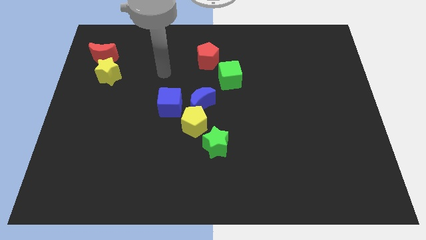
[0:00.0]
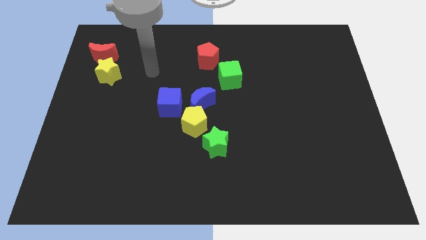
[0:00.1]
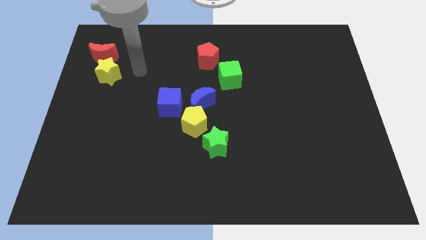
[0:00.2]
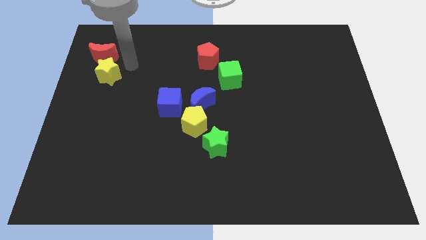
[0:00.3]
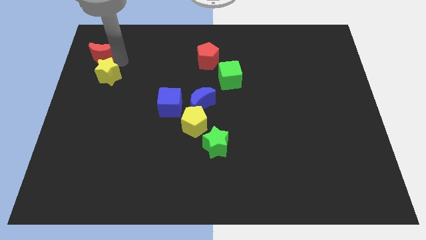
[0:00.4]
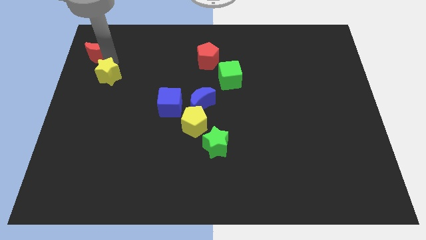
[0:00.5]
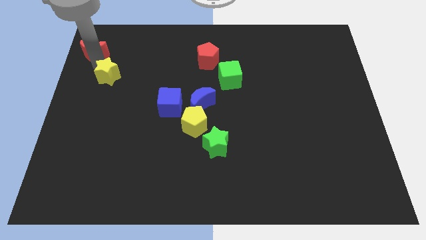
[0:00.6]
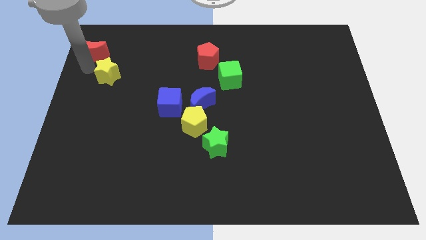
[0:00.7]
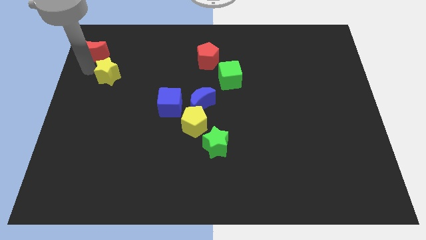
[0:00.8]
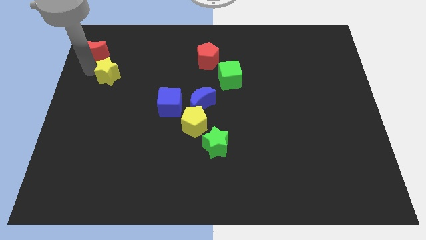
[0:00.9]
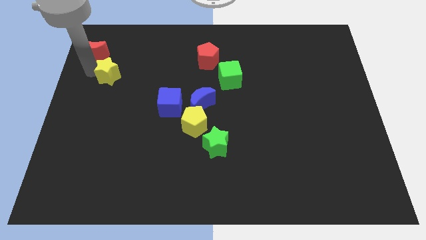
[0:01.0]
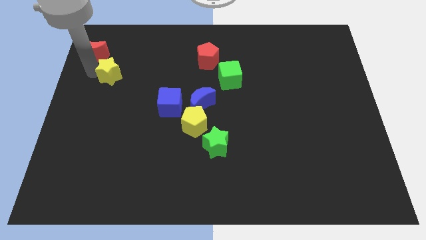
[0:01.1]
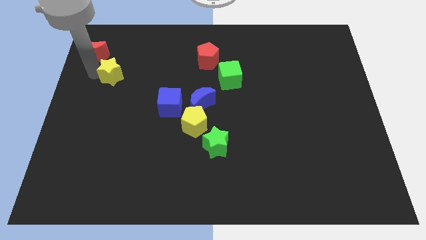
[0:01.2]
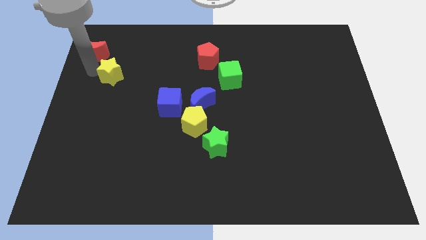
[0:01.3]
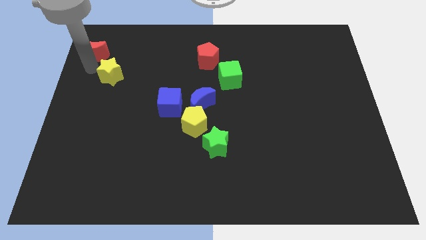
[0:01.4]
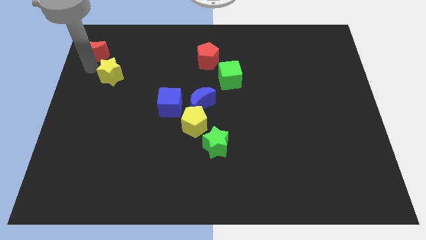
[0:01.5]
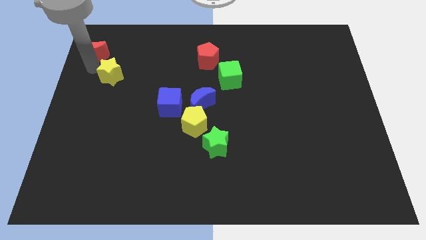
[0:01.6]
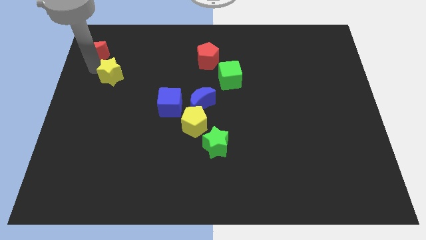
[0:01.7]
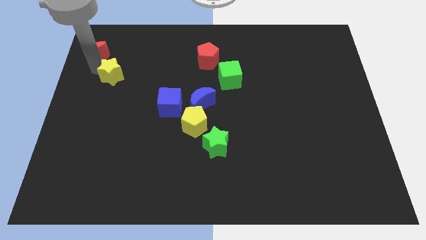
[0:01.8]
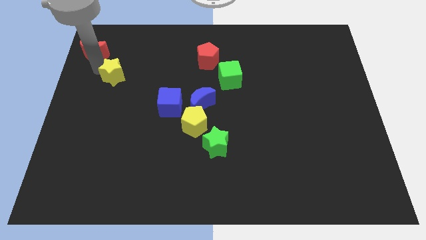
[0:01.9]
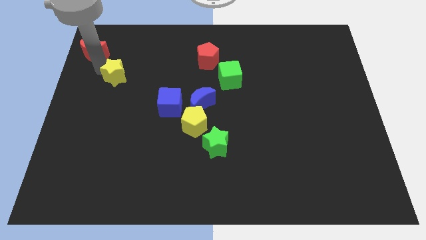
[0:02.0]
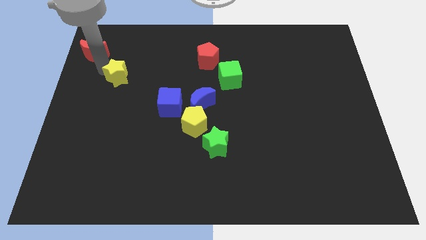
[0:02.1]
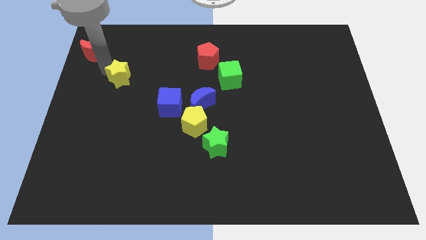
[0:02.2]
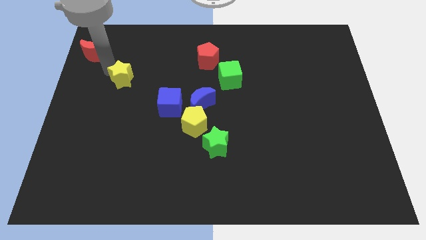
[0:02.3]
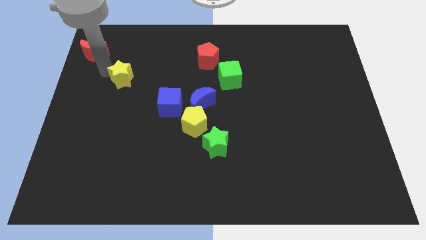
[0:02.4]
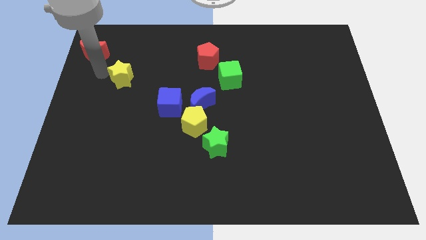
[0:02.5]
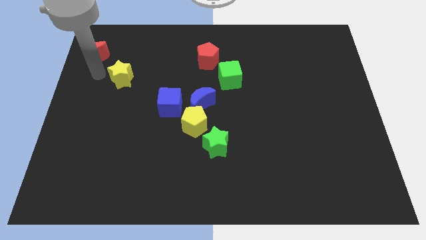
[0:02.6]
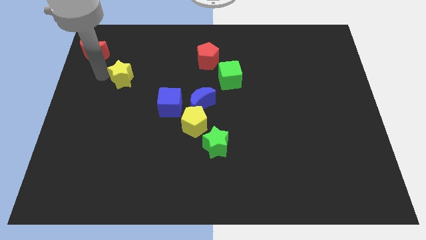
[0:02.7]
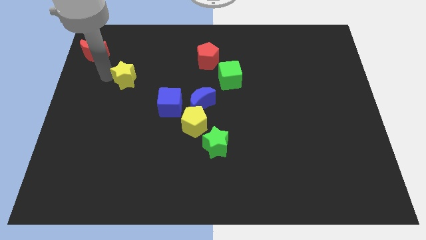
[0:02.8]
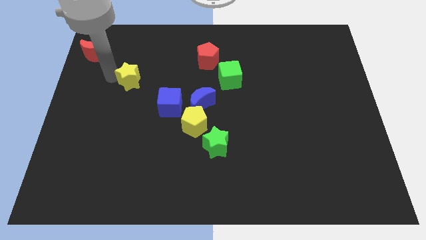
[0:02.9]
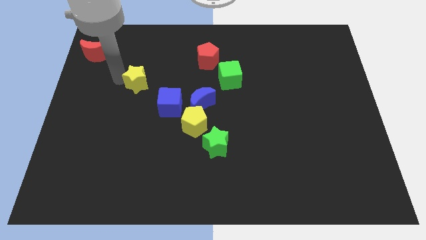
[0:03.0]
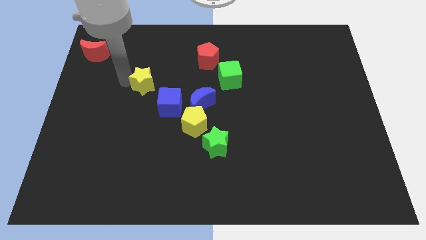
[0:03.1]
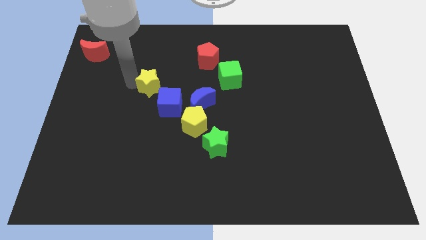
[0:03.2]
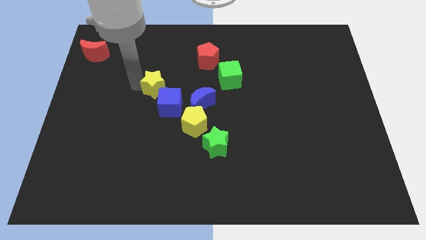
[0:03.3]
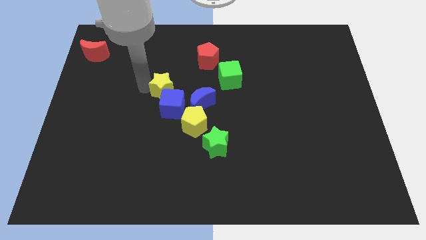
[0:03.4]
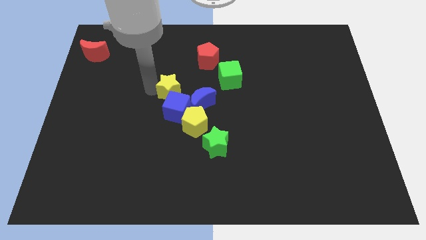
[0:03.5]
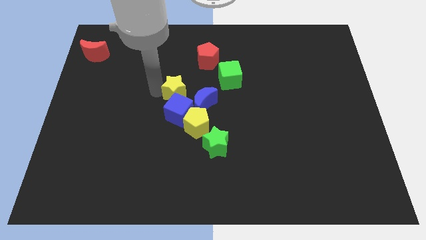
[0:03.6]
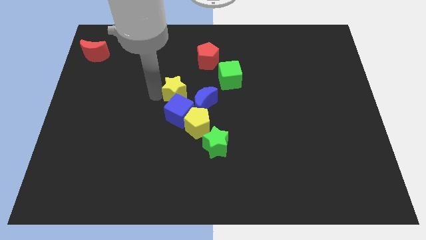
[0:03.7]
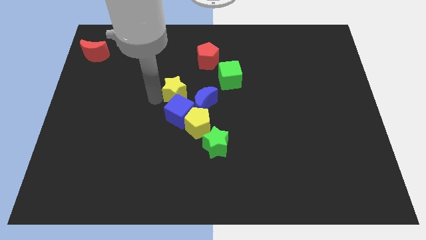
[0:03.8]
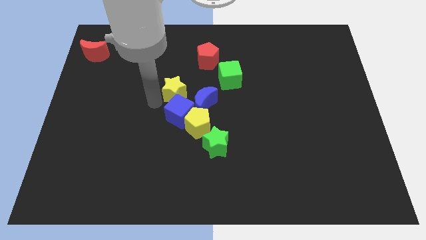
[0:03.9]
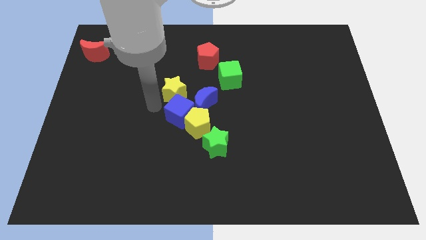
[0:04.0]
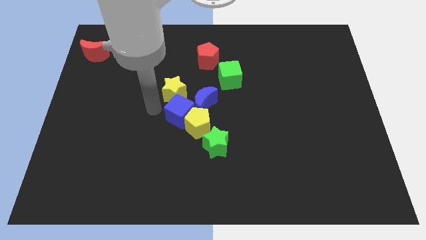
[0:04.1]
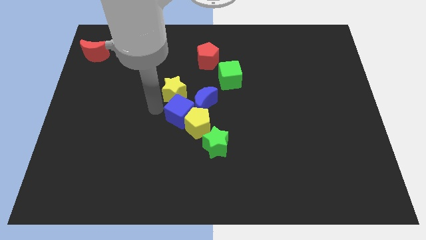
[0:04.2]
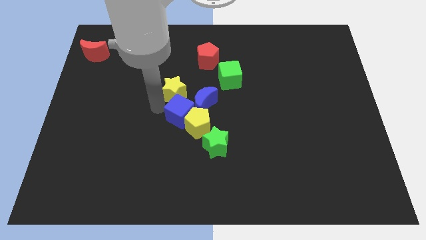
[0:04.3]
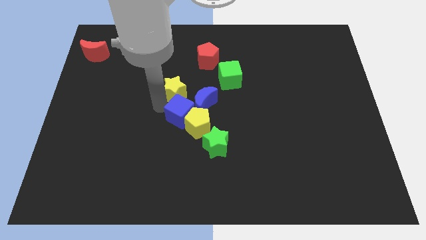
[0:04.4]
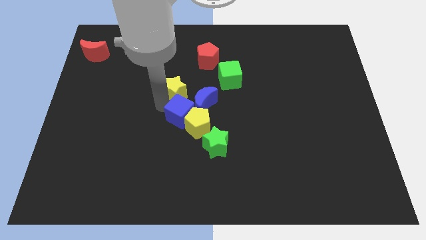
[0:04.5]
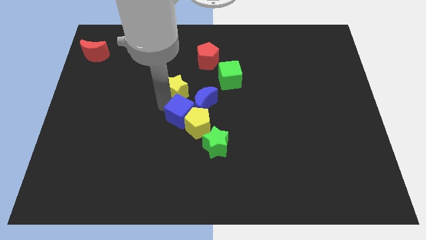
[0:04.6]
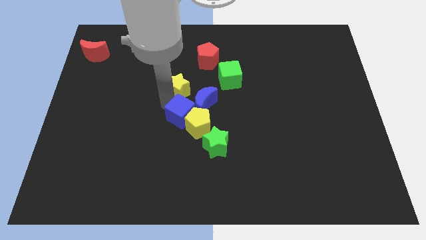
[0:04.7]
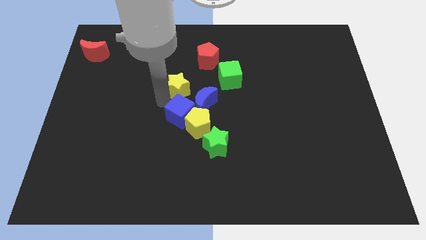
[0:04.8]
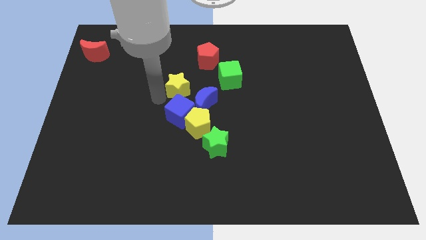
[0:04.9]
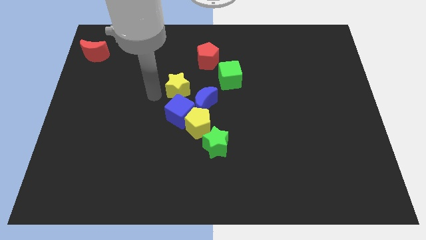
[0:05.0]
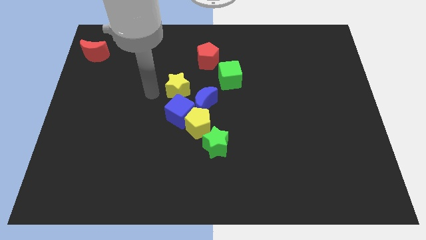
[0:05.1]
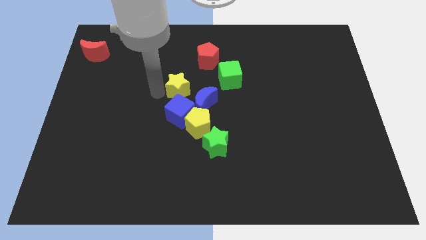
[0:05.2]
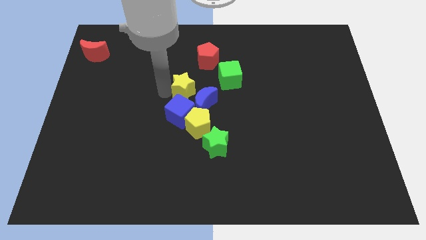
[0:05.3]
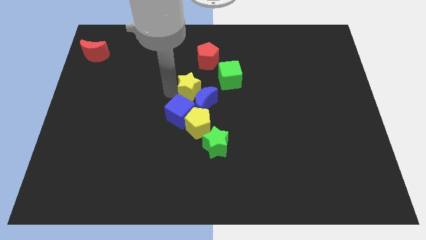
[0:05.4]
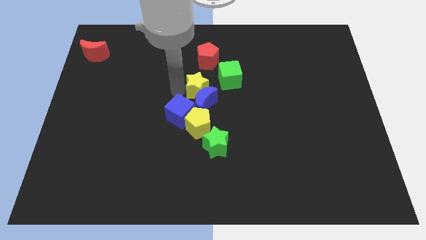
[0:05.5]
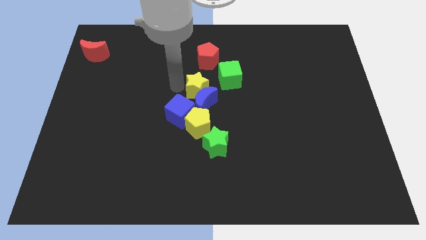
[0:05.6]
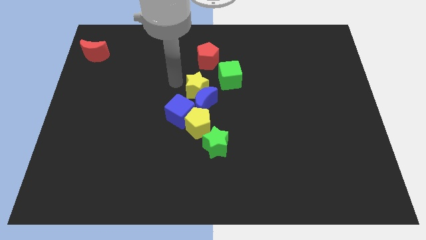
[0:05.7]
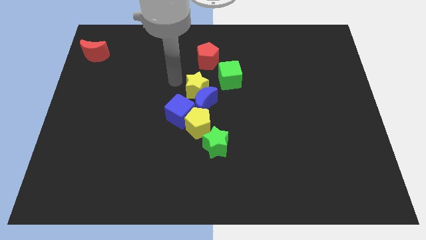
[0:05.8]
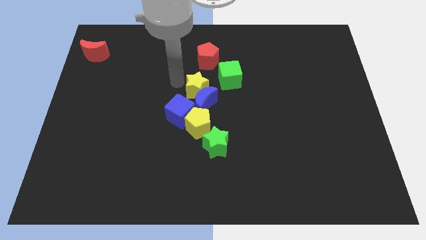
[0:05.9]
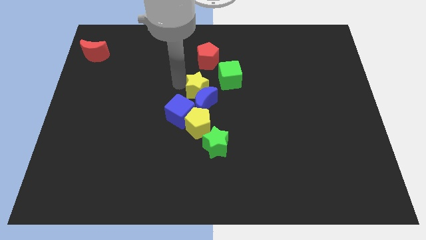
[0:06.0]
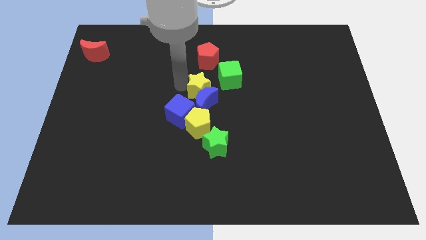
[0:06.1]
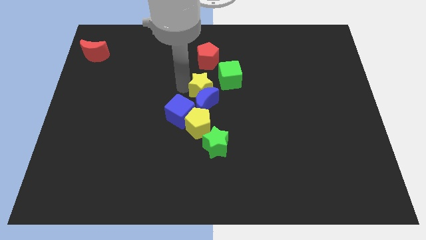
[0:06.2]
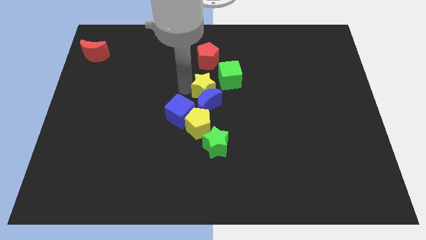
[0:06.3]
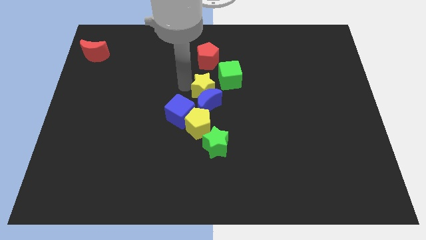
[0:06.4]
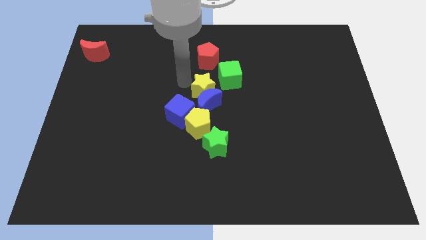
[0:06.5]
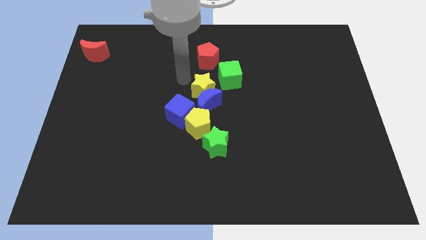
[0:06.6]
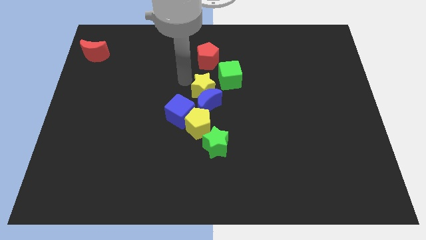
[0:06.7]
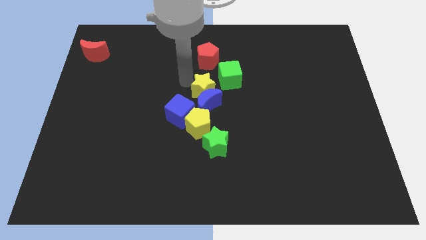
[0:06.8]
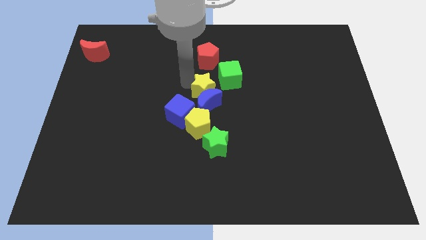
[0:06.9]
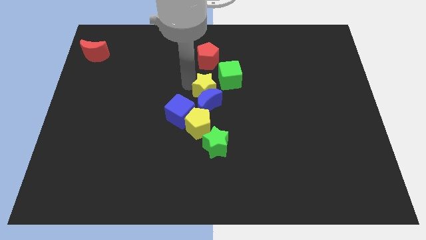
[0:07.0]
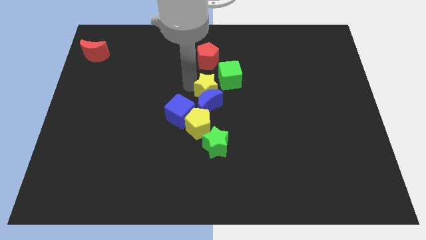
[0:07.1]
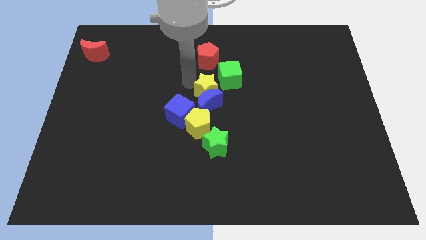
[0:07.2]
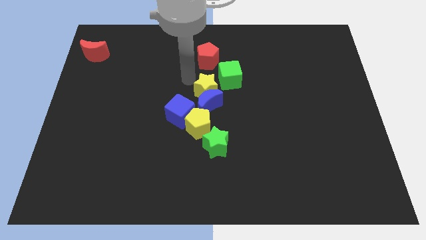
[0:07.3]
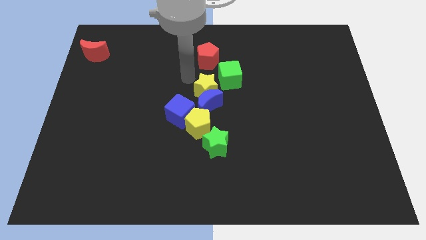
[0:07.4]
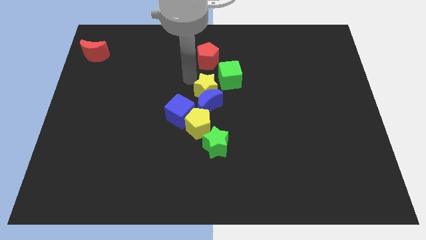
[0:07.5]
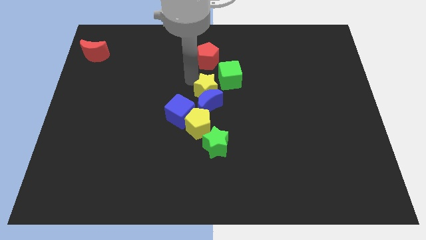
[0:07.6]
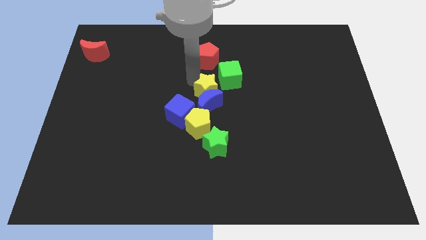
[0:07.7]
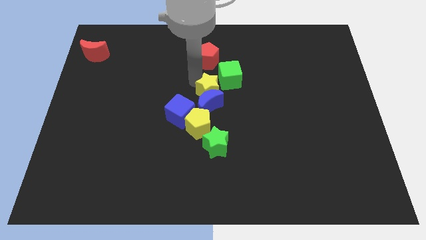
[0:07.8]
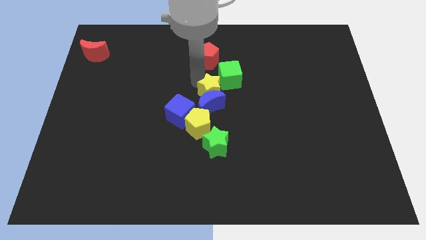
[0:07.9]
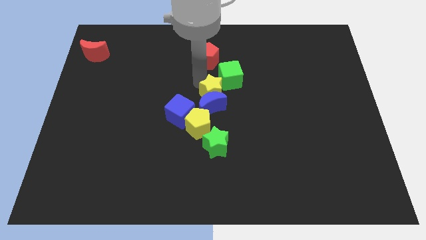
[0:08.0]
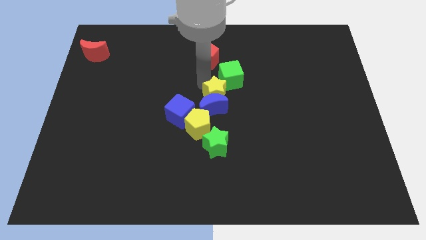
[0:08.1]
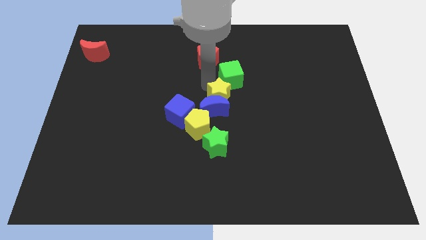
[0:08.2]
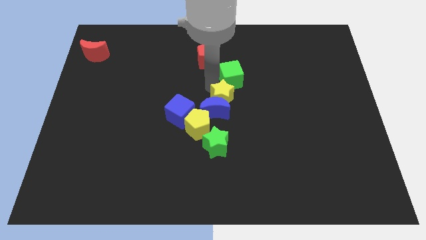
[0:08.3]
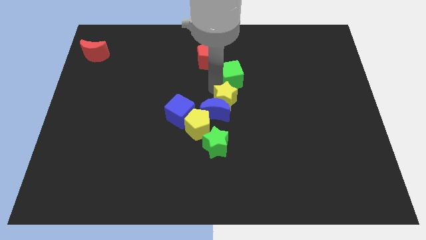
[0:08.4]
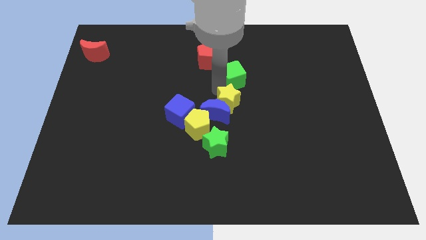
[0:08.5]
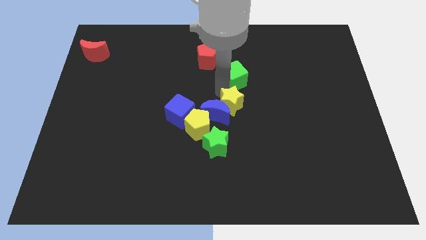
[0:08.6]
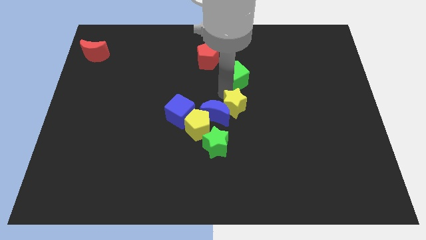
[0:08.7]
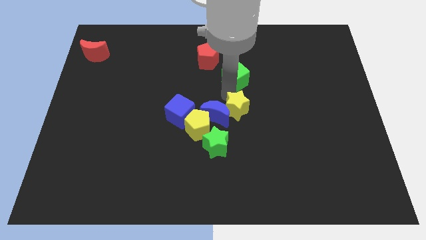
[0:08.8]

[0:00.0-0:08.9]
put the yellow star diagonally down and to the right of the blue moon
